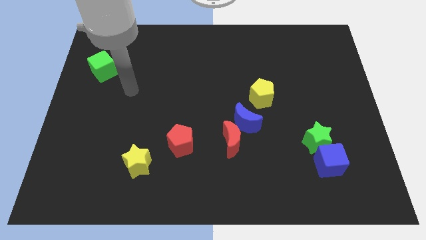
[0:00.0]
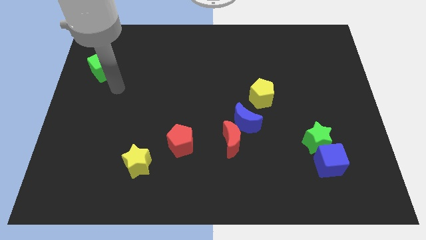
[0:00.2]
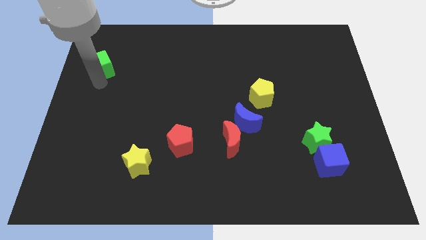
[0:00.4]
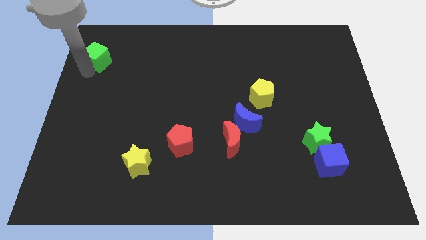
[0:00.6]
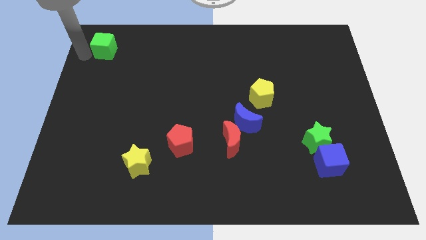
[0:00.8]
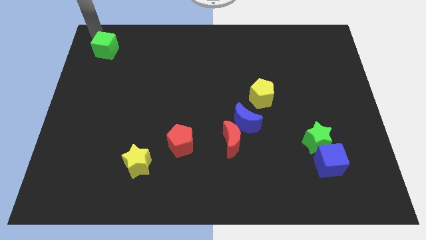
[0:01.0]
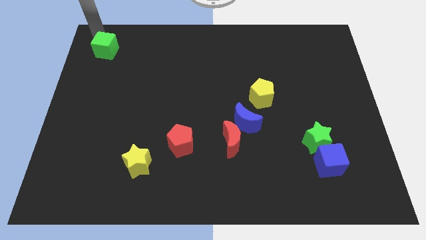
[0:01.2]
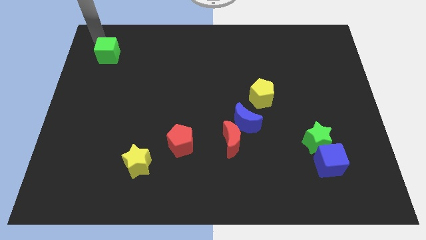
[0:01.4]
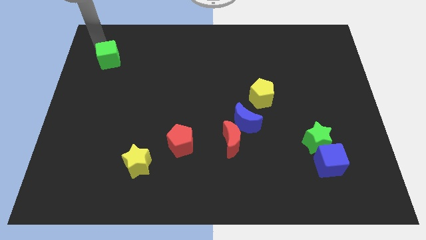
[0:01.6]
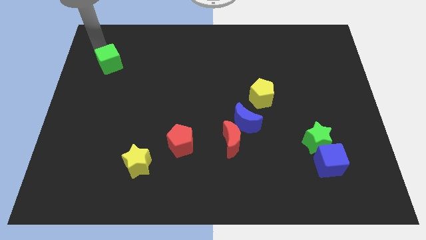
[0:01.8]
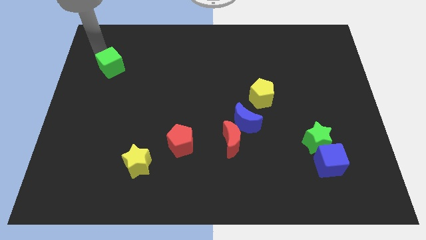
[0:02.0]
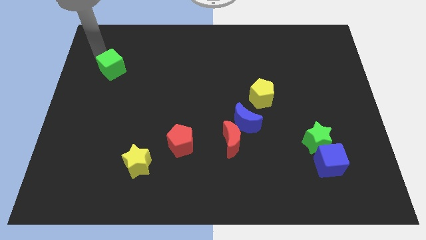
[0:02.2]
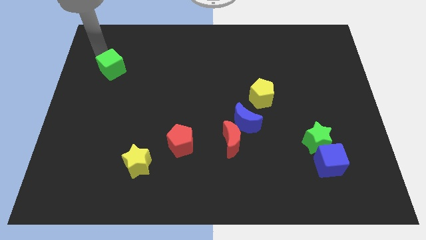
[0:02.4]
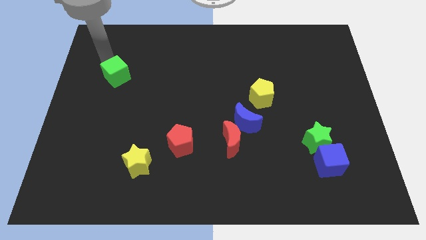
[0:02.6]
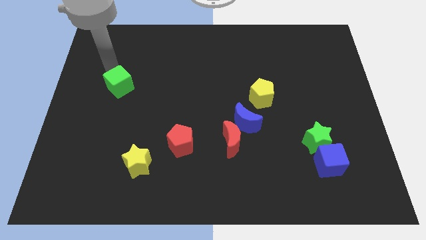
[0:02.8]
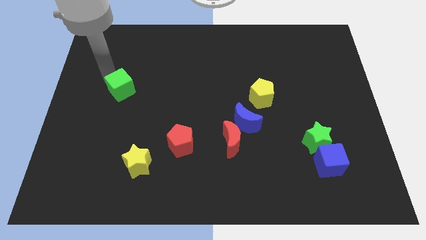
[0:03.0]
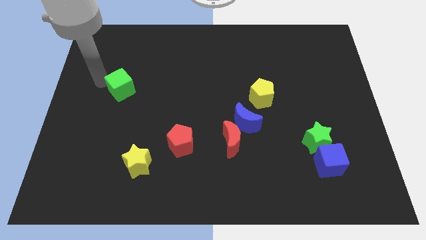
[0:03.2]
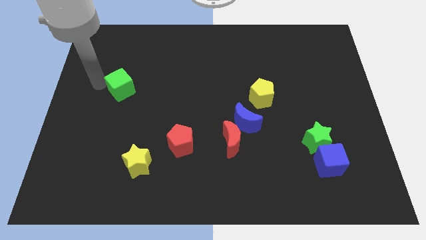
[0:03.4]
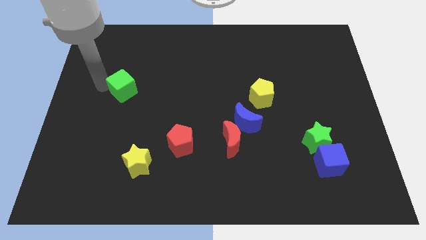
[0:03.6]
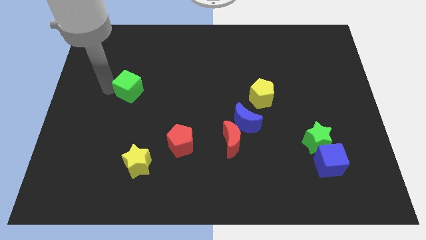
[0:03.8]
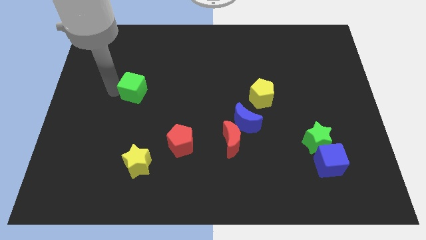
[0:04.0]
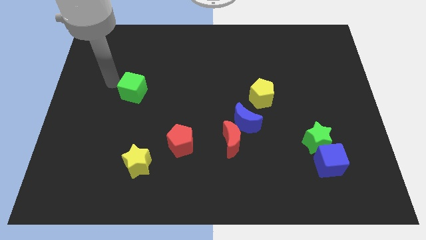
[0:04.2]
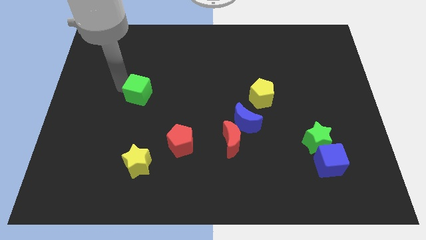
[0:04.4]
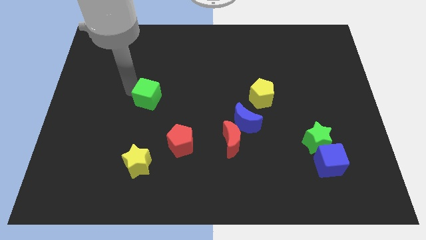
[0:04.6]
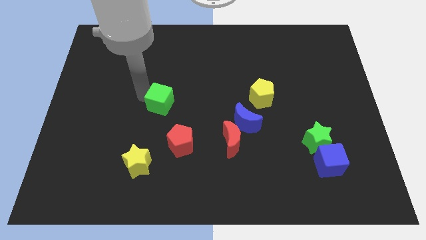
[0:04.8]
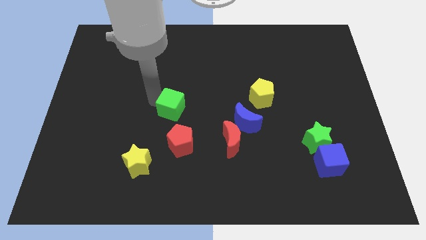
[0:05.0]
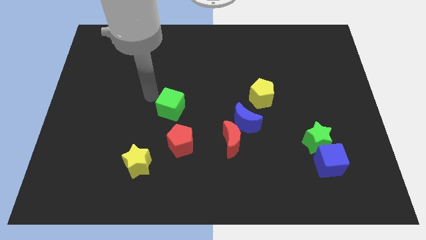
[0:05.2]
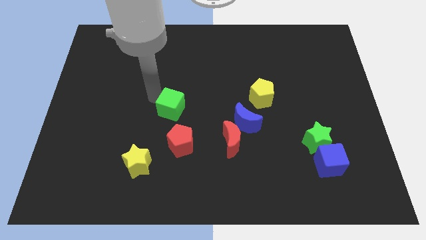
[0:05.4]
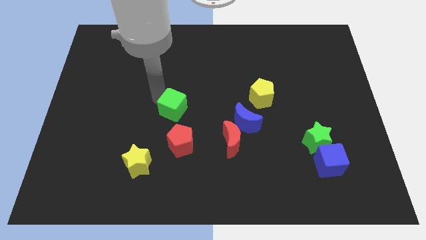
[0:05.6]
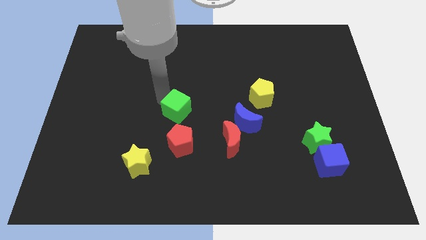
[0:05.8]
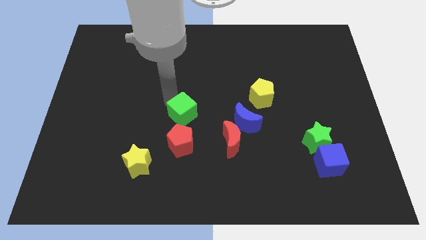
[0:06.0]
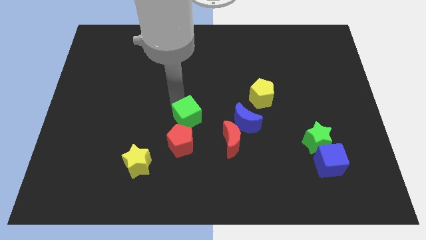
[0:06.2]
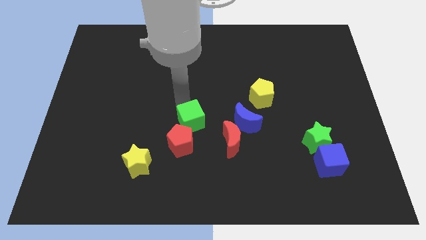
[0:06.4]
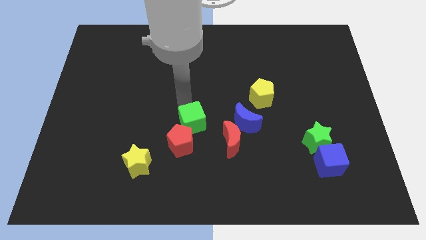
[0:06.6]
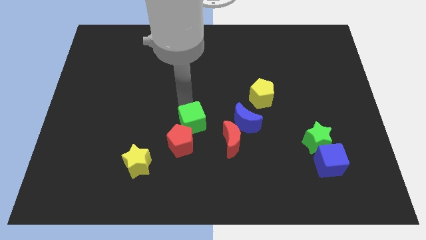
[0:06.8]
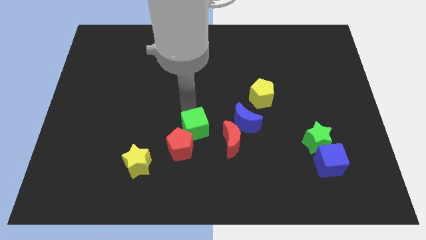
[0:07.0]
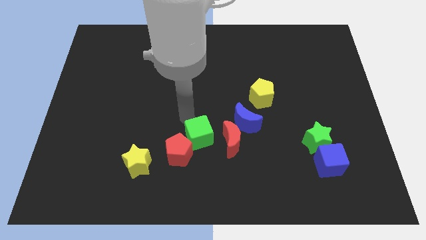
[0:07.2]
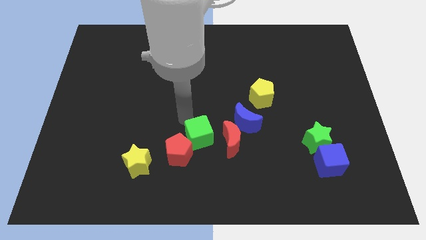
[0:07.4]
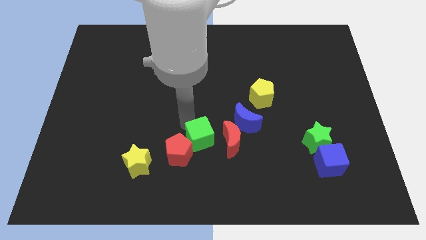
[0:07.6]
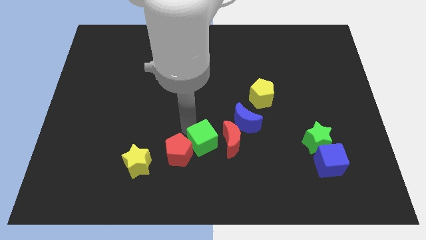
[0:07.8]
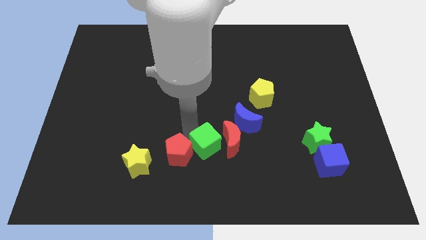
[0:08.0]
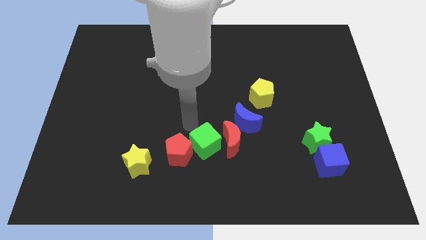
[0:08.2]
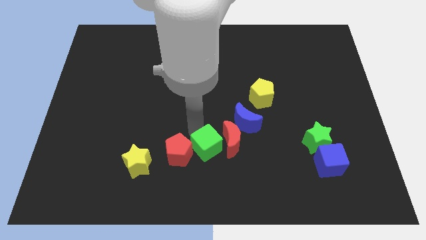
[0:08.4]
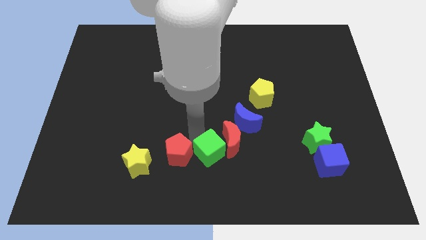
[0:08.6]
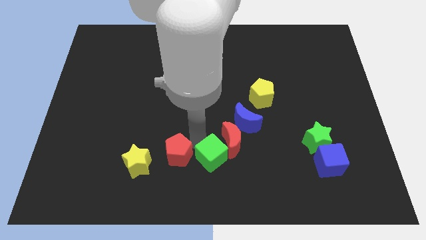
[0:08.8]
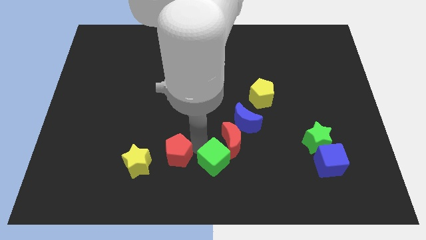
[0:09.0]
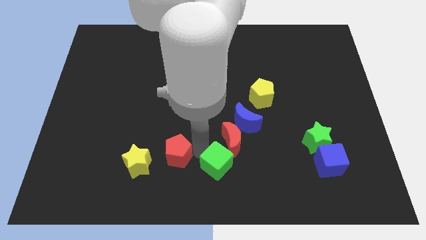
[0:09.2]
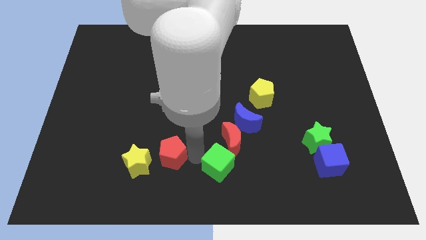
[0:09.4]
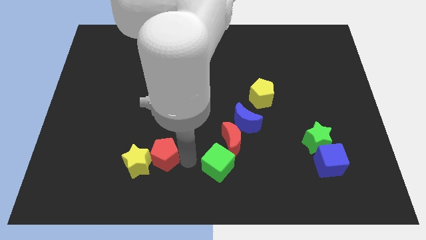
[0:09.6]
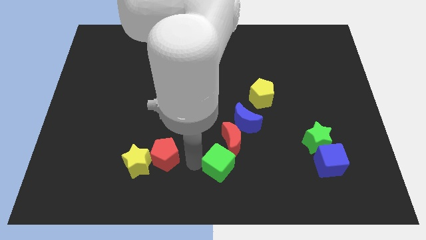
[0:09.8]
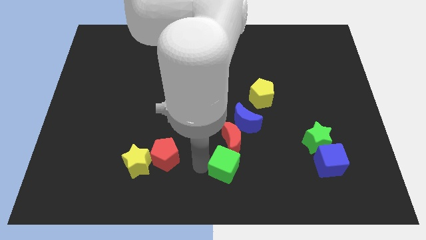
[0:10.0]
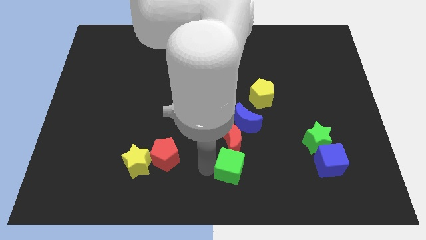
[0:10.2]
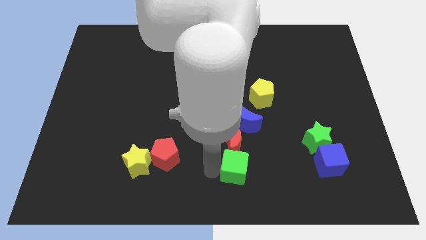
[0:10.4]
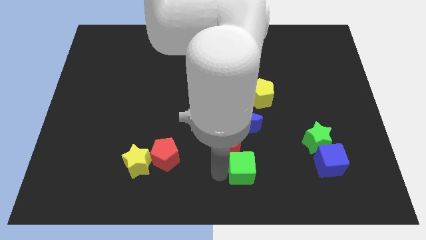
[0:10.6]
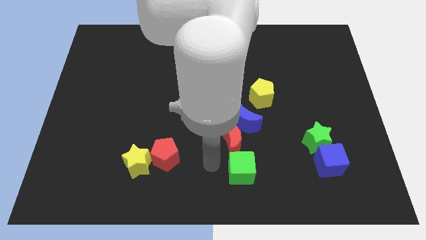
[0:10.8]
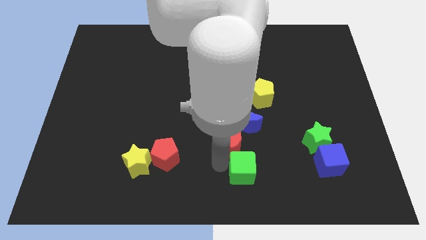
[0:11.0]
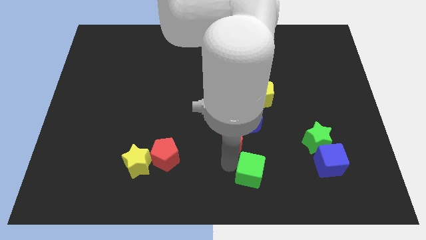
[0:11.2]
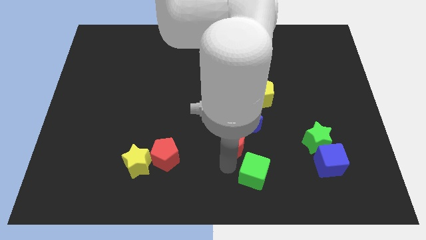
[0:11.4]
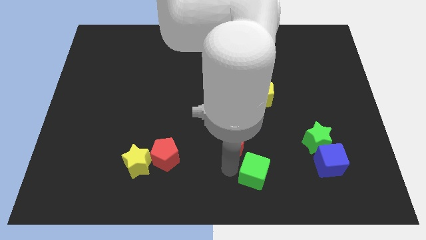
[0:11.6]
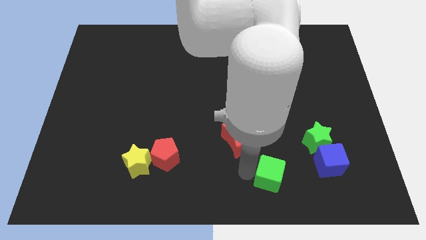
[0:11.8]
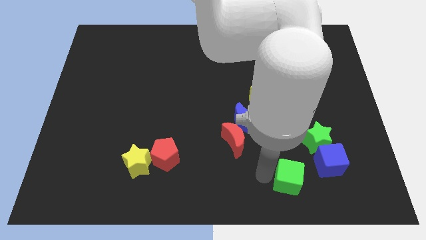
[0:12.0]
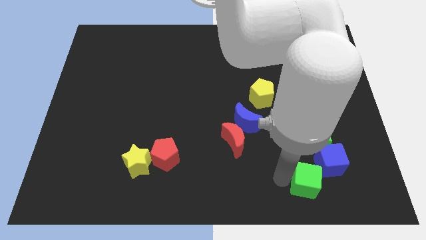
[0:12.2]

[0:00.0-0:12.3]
move the green cube below the green star

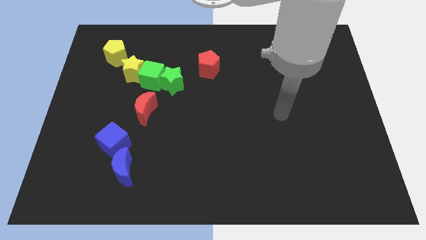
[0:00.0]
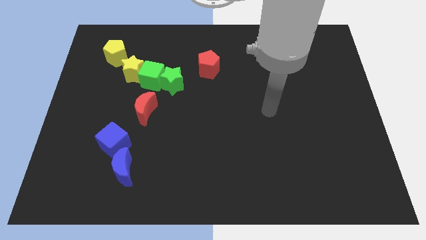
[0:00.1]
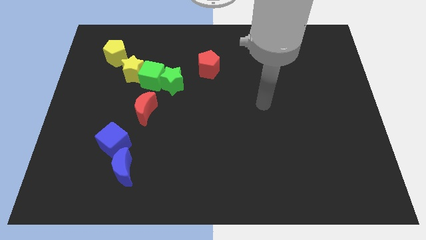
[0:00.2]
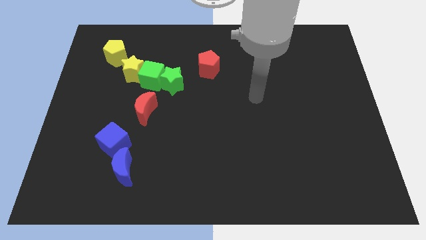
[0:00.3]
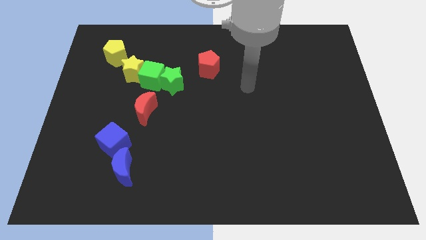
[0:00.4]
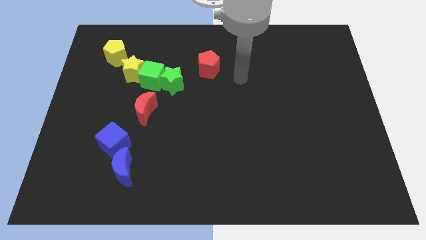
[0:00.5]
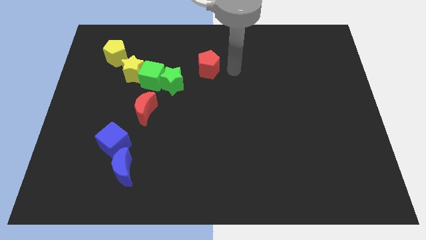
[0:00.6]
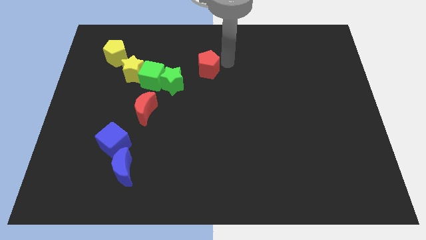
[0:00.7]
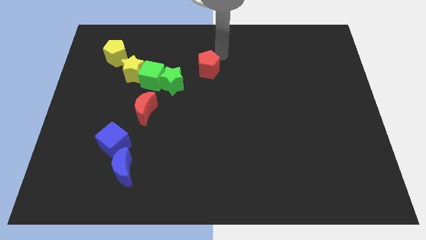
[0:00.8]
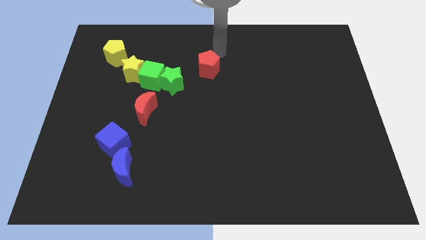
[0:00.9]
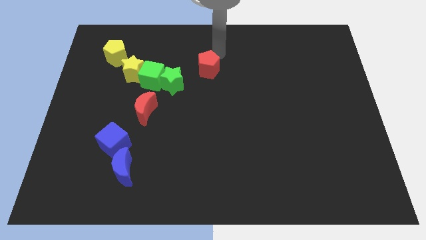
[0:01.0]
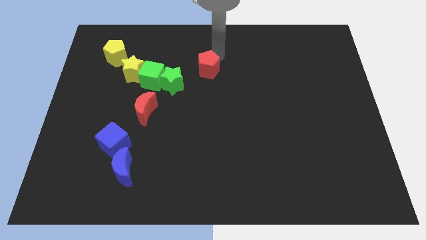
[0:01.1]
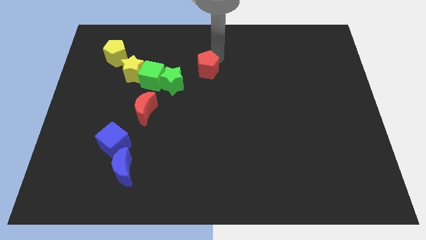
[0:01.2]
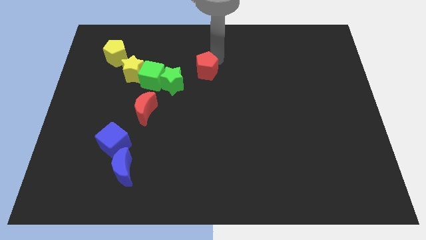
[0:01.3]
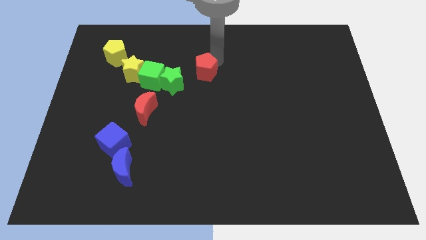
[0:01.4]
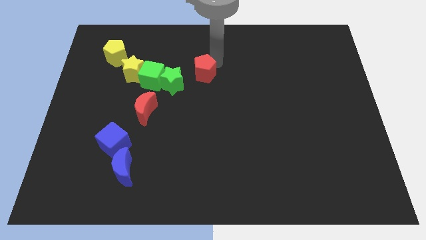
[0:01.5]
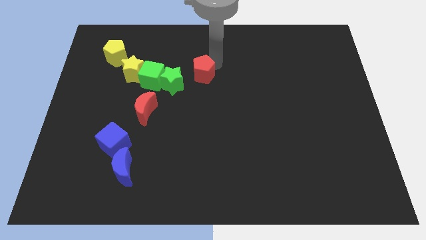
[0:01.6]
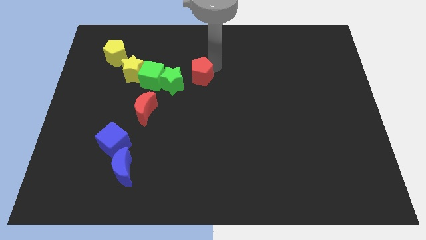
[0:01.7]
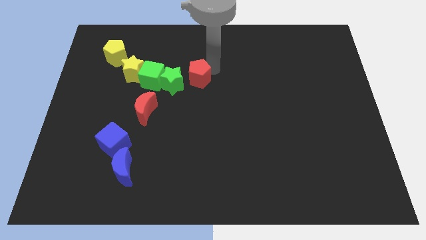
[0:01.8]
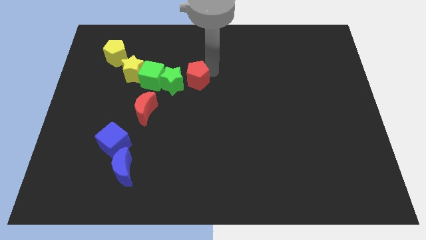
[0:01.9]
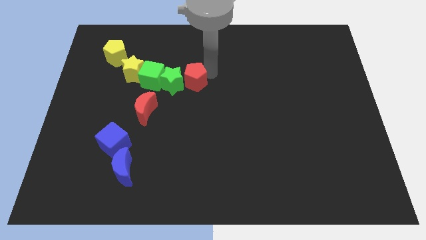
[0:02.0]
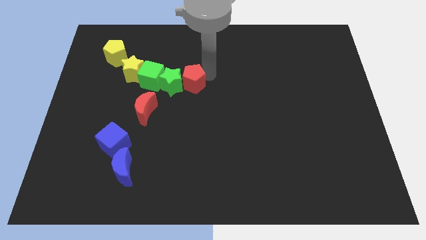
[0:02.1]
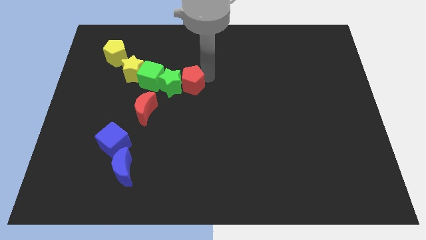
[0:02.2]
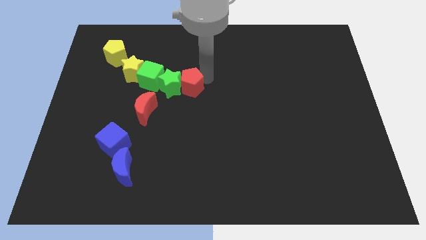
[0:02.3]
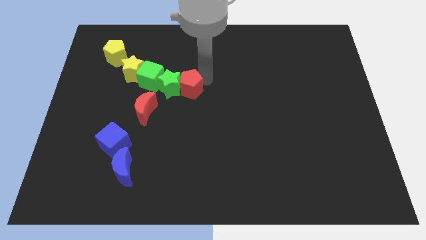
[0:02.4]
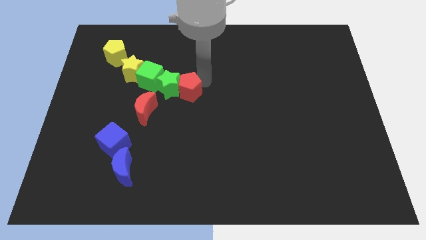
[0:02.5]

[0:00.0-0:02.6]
slide the red pentagon diagonally down and to the right of the green cube
